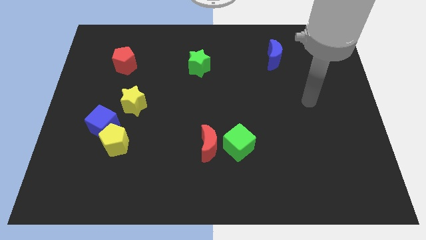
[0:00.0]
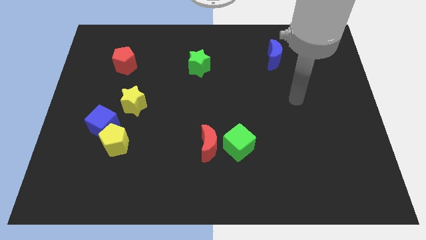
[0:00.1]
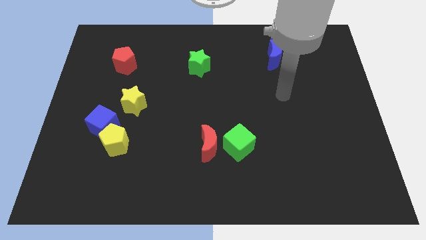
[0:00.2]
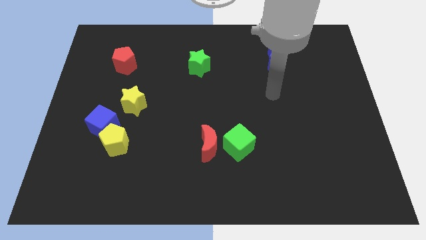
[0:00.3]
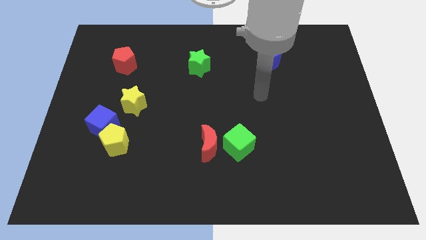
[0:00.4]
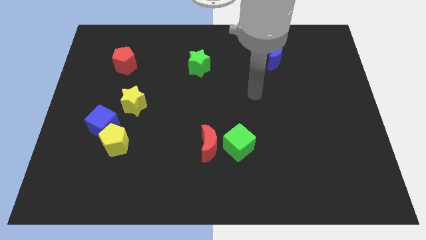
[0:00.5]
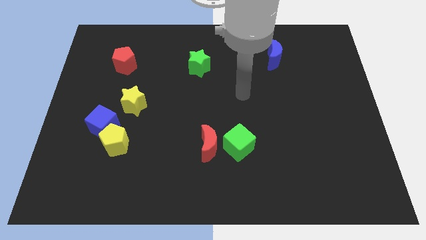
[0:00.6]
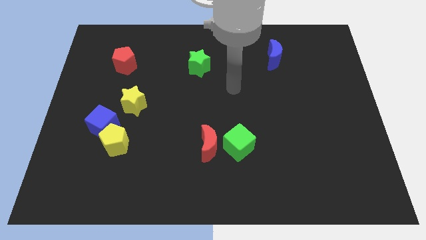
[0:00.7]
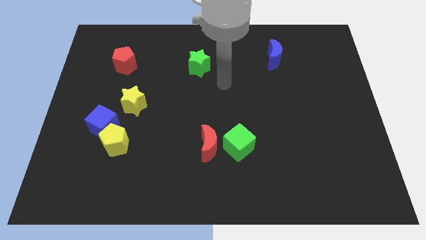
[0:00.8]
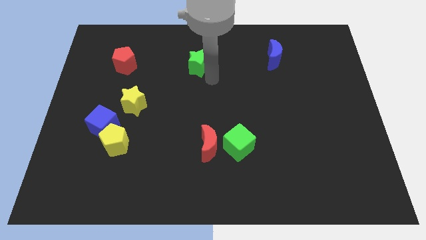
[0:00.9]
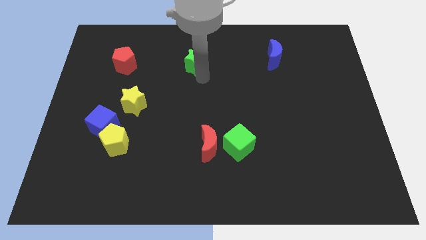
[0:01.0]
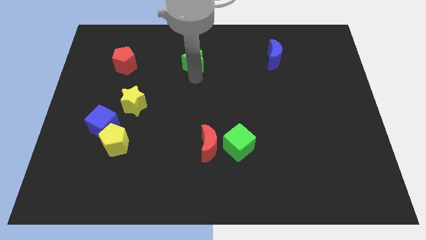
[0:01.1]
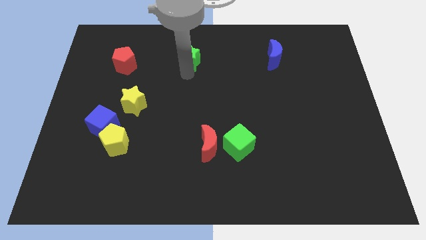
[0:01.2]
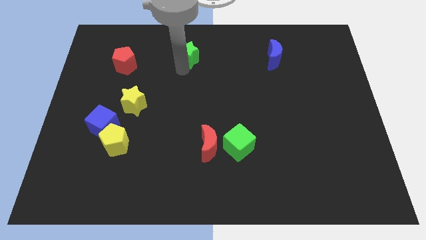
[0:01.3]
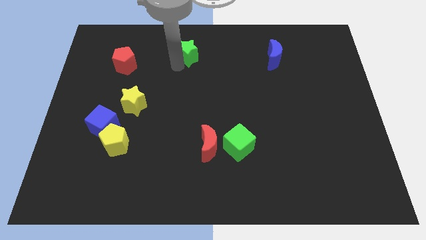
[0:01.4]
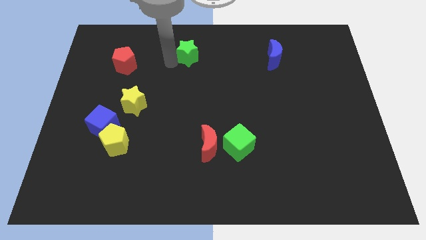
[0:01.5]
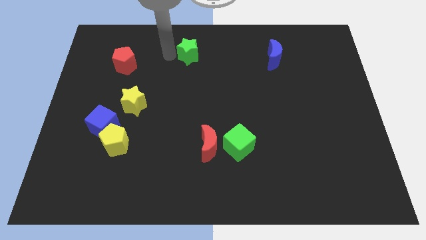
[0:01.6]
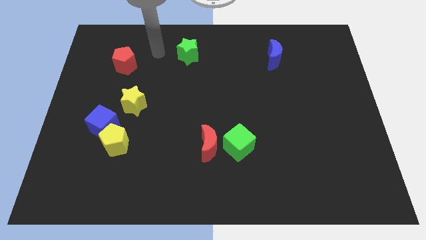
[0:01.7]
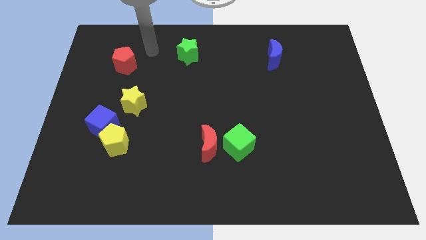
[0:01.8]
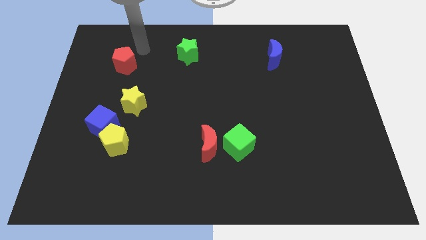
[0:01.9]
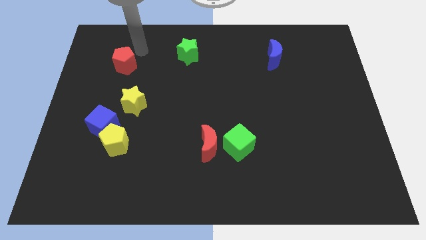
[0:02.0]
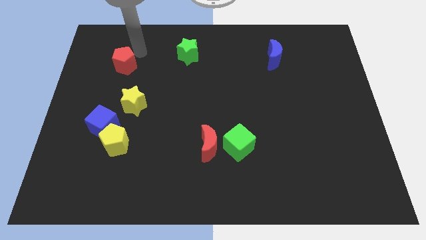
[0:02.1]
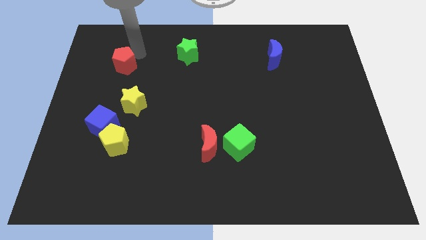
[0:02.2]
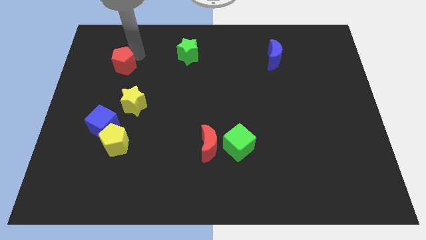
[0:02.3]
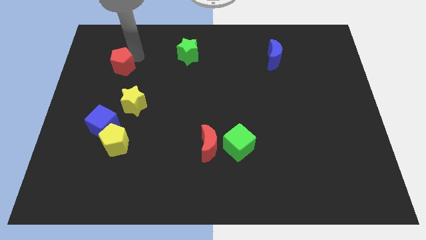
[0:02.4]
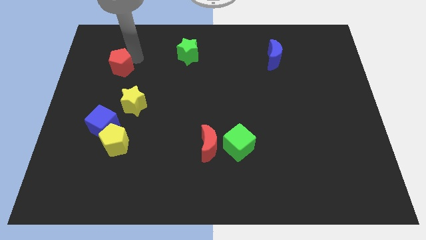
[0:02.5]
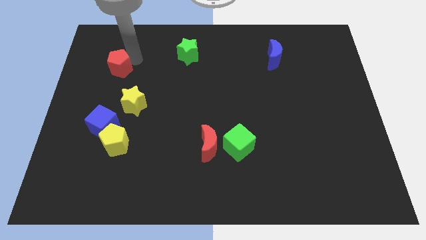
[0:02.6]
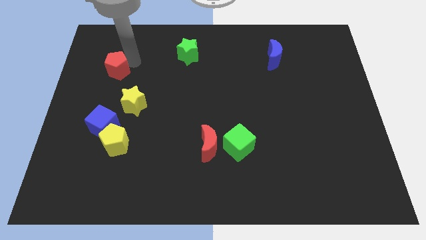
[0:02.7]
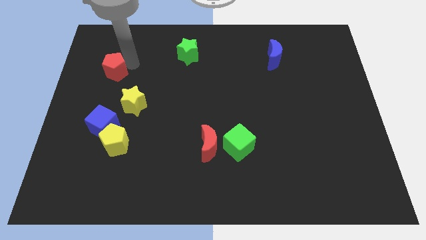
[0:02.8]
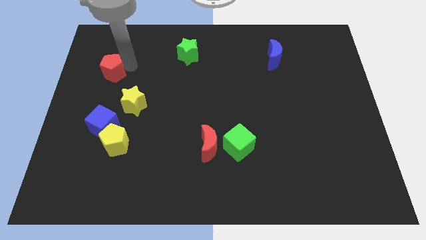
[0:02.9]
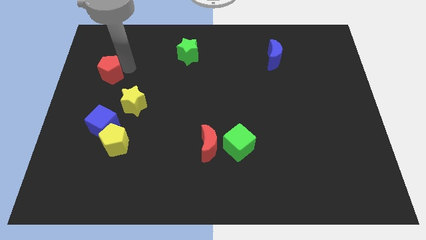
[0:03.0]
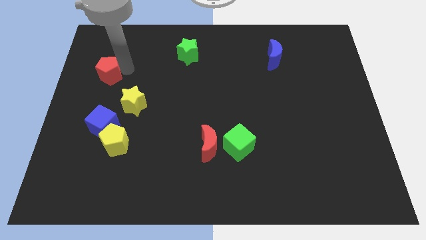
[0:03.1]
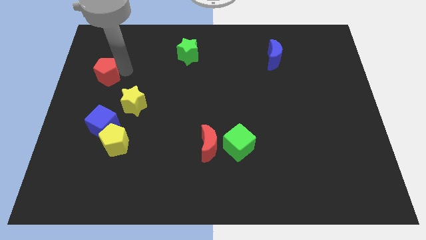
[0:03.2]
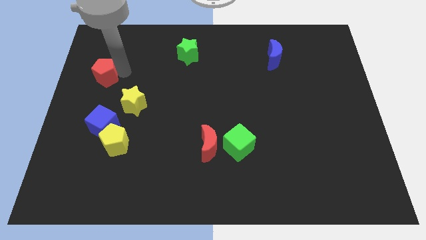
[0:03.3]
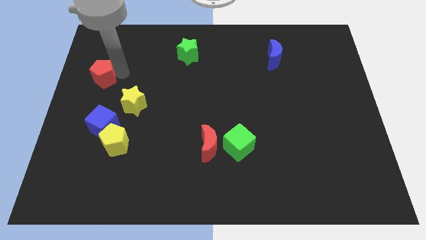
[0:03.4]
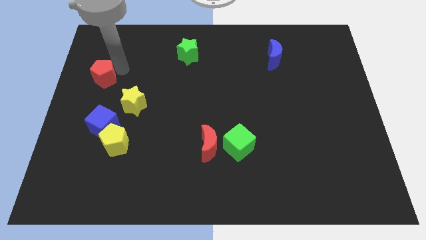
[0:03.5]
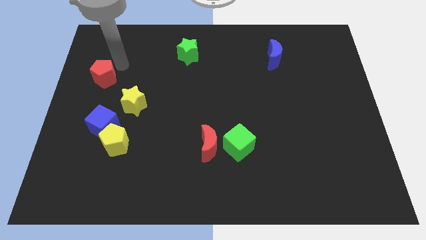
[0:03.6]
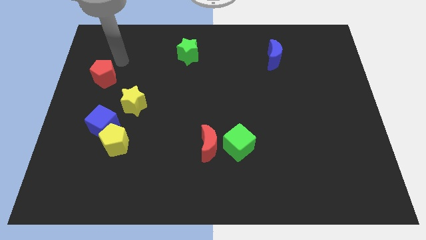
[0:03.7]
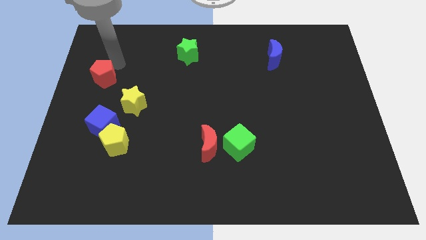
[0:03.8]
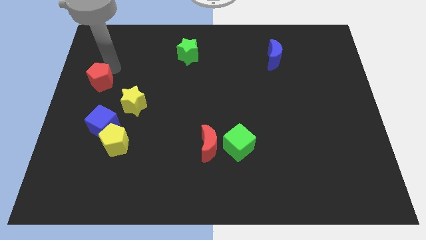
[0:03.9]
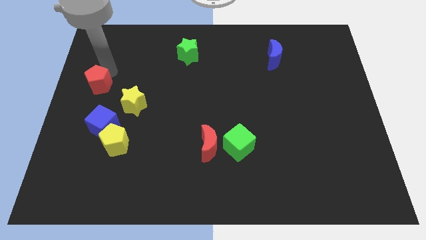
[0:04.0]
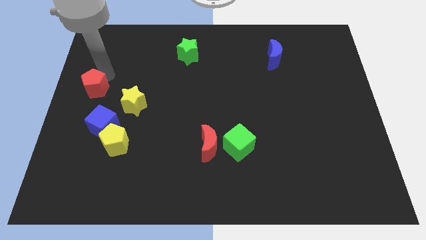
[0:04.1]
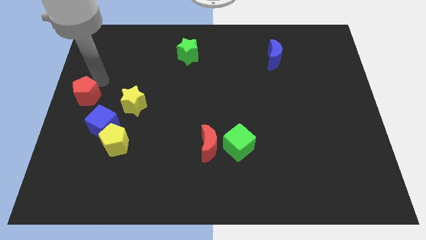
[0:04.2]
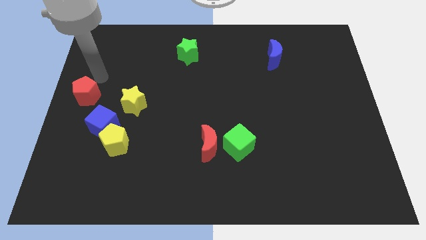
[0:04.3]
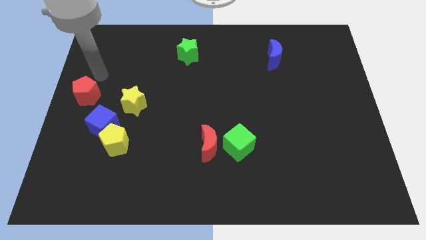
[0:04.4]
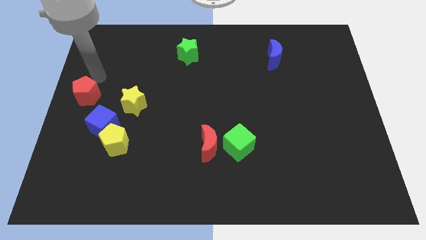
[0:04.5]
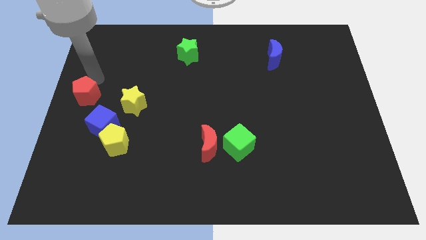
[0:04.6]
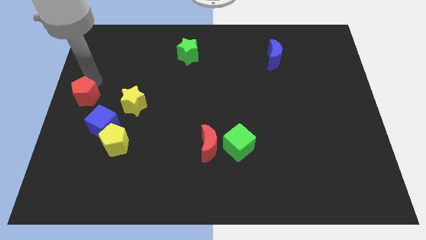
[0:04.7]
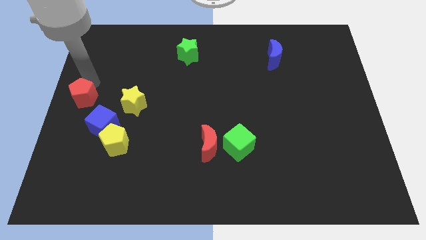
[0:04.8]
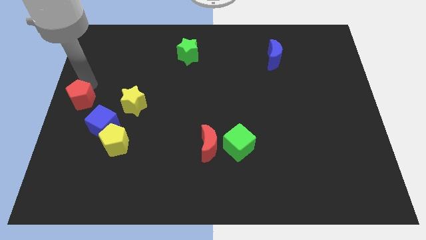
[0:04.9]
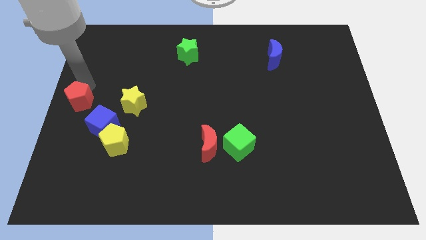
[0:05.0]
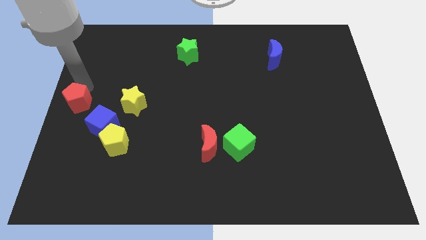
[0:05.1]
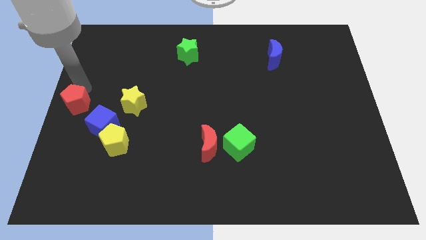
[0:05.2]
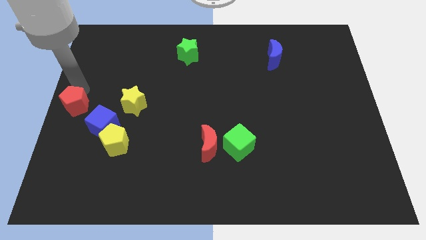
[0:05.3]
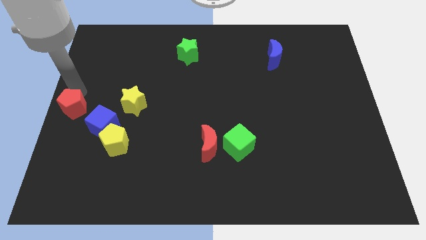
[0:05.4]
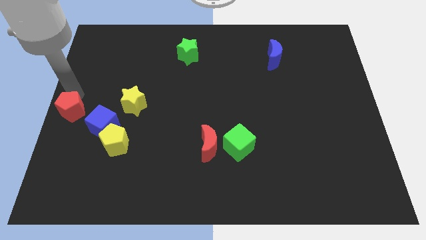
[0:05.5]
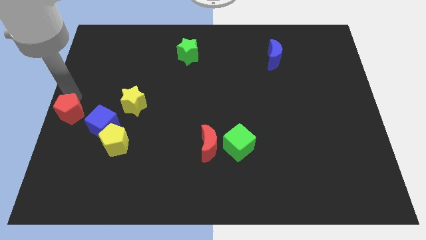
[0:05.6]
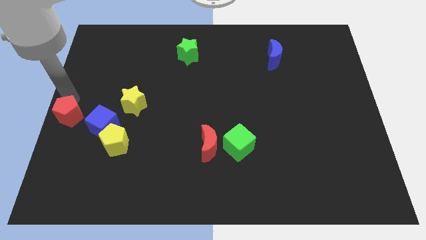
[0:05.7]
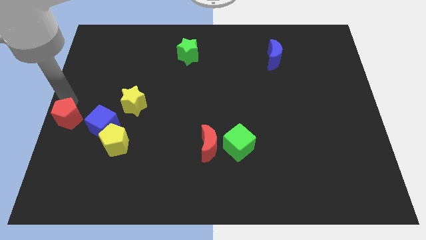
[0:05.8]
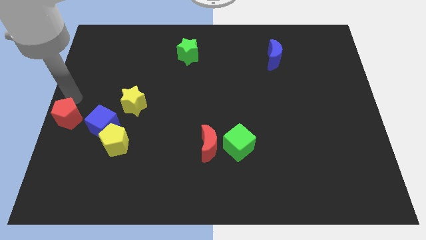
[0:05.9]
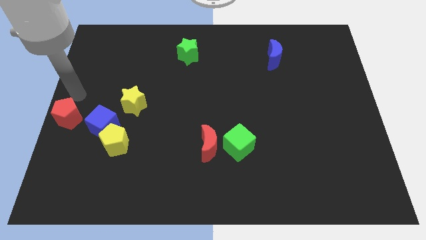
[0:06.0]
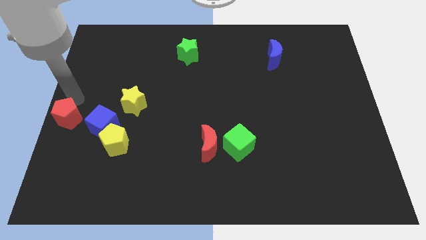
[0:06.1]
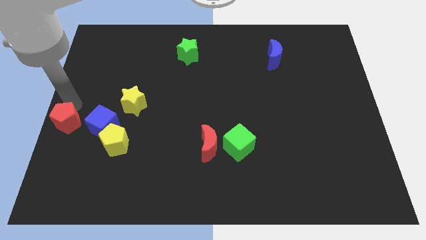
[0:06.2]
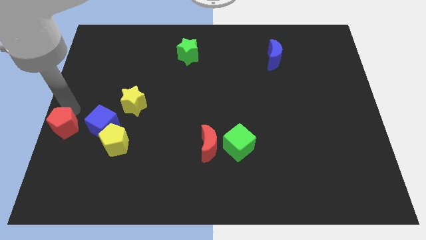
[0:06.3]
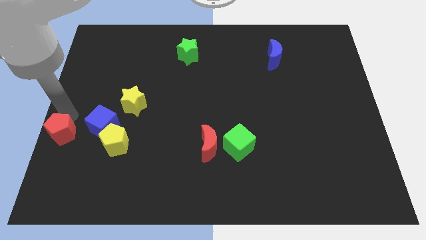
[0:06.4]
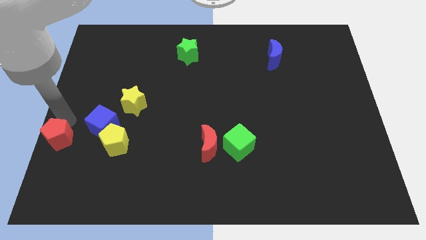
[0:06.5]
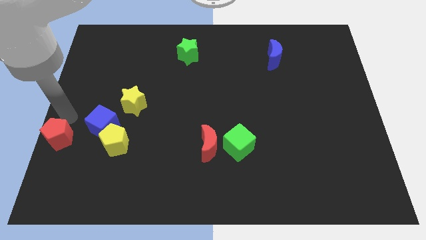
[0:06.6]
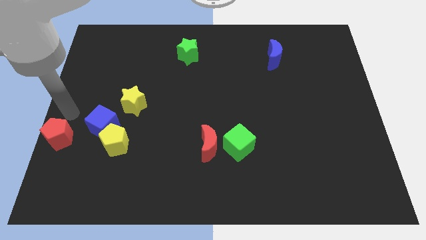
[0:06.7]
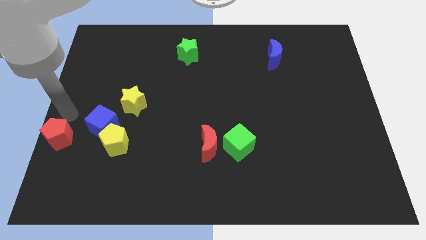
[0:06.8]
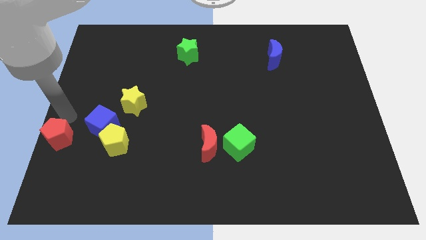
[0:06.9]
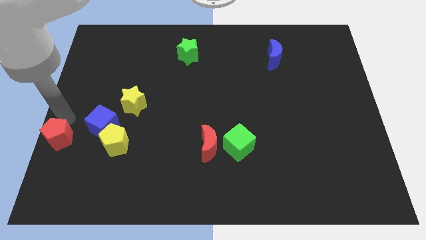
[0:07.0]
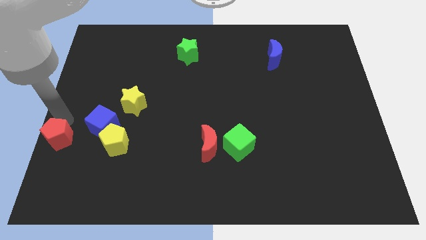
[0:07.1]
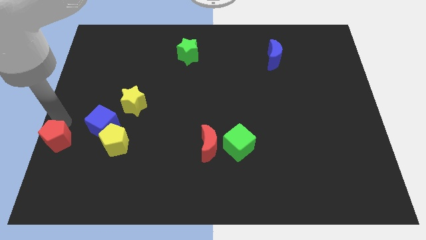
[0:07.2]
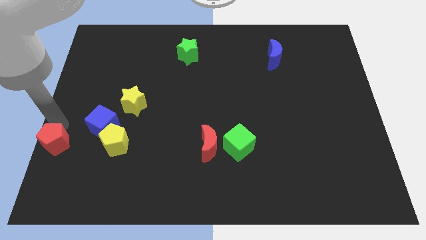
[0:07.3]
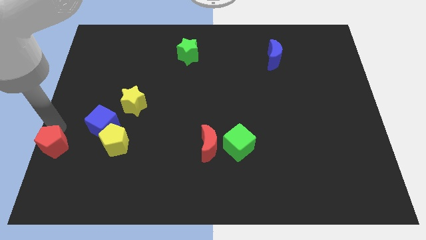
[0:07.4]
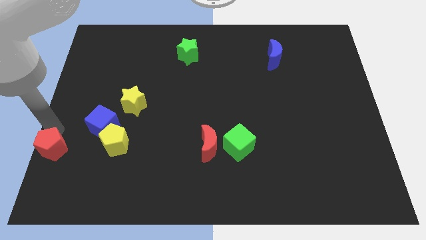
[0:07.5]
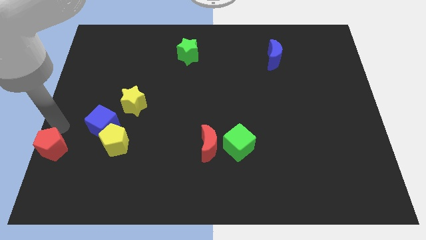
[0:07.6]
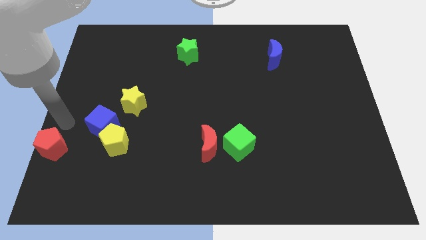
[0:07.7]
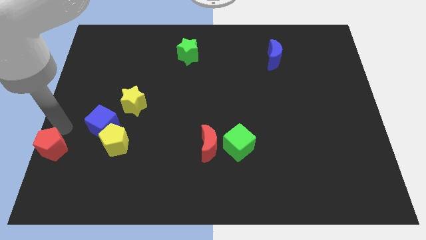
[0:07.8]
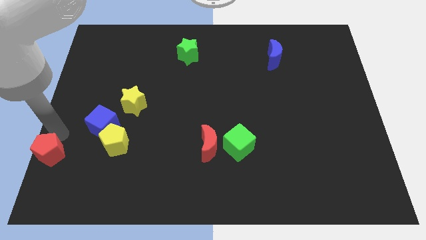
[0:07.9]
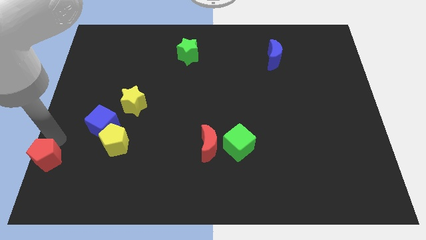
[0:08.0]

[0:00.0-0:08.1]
put the red pentagon to the bottom left
